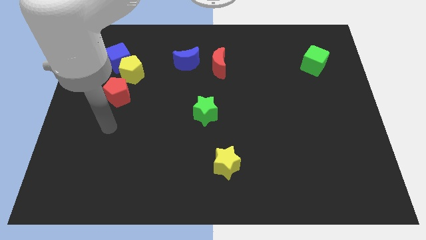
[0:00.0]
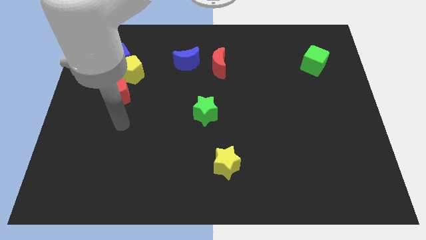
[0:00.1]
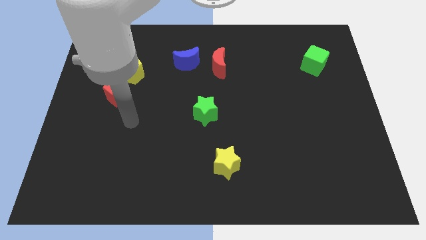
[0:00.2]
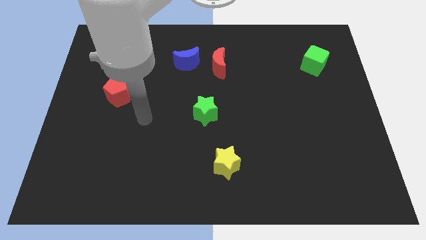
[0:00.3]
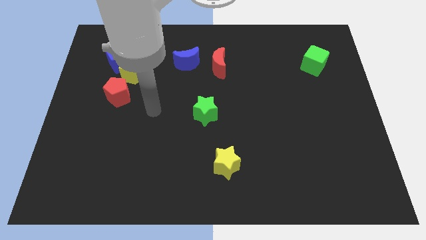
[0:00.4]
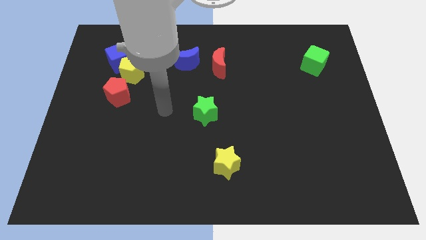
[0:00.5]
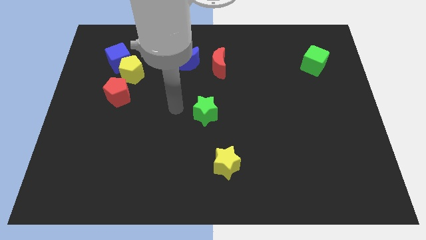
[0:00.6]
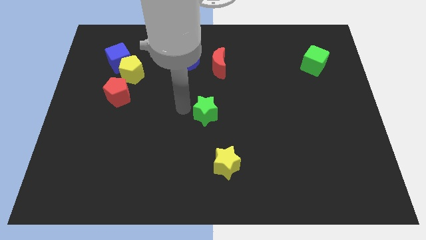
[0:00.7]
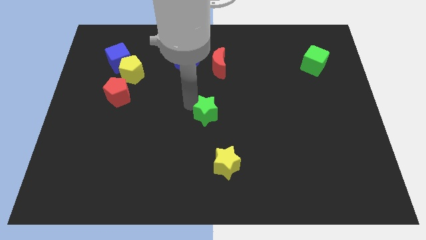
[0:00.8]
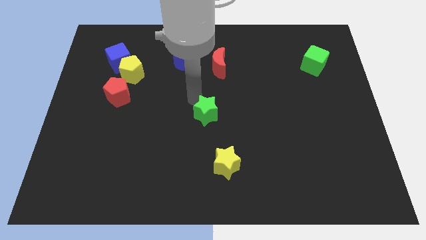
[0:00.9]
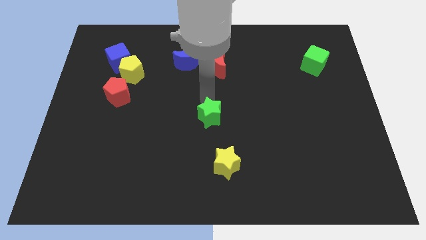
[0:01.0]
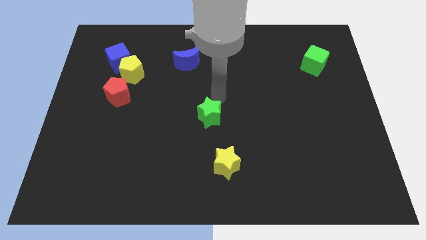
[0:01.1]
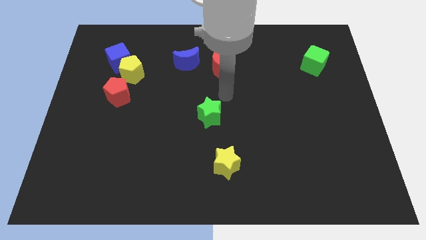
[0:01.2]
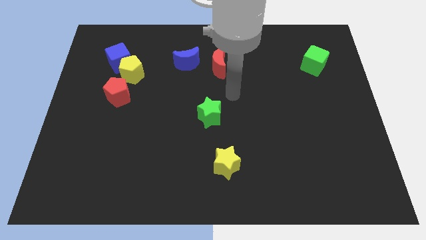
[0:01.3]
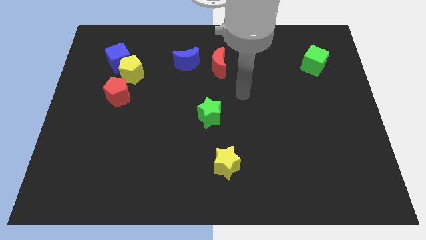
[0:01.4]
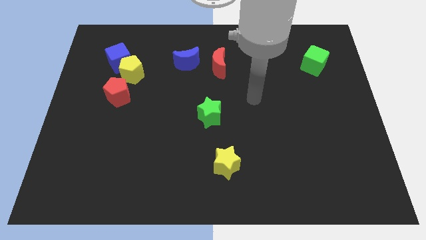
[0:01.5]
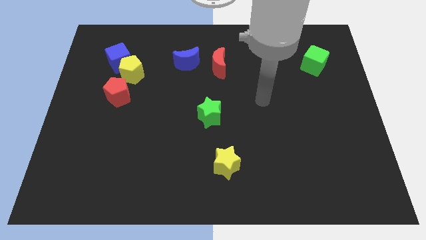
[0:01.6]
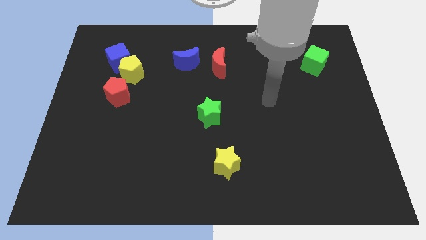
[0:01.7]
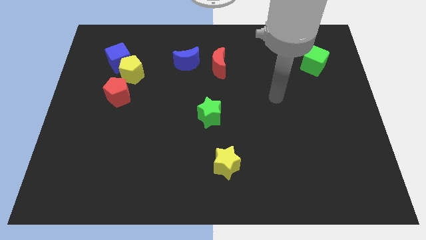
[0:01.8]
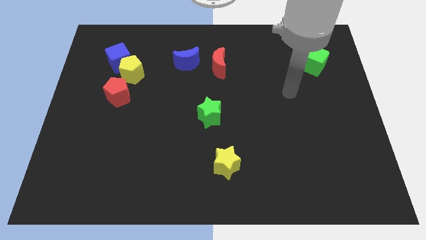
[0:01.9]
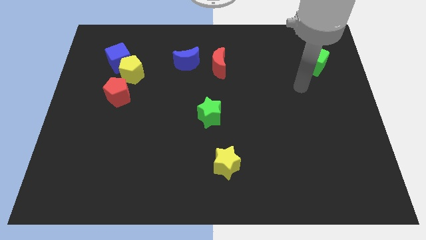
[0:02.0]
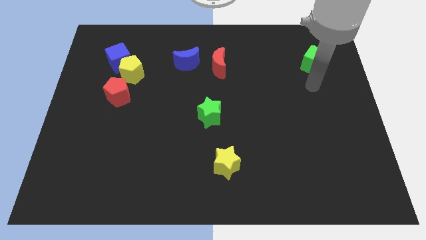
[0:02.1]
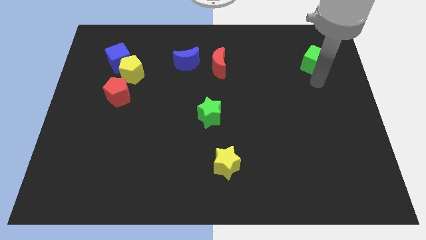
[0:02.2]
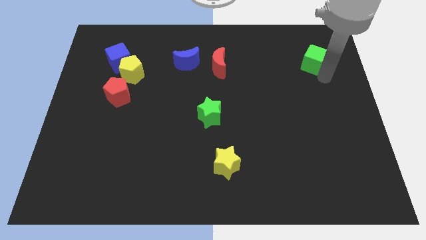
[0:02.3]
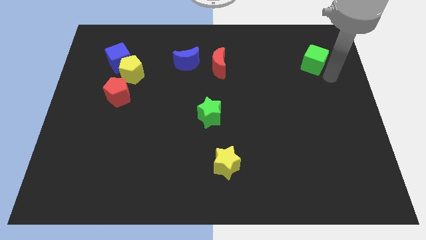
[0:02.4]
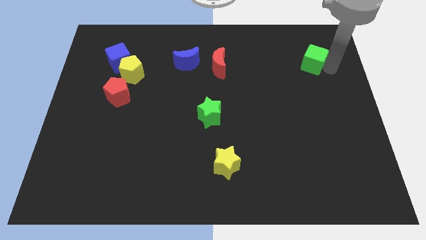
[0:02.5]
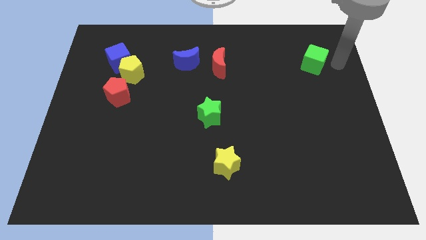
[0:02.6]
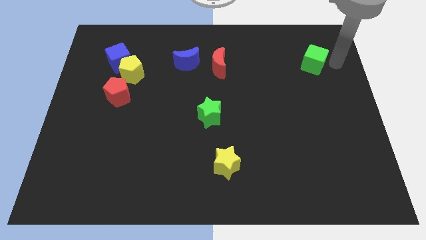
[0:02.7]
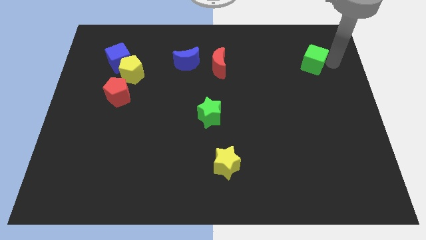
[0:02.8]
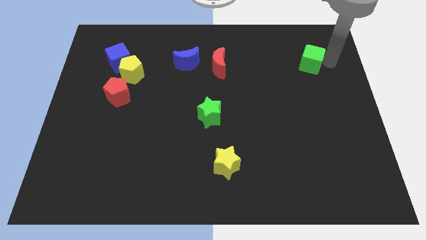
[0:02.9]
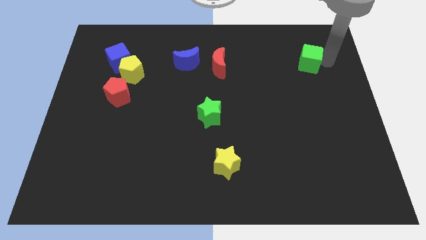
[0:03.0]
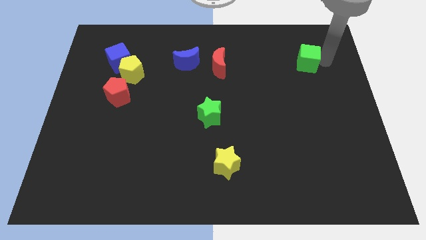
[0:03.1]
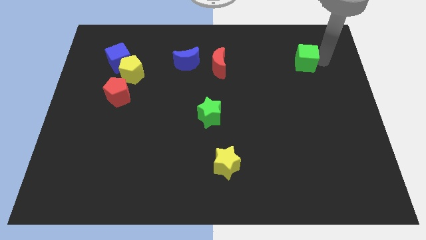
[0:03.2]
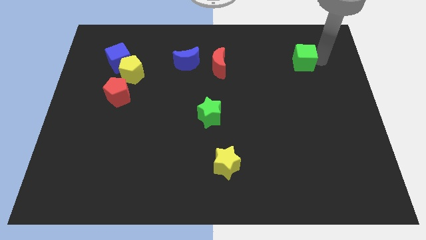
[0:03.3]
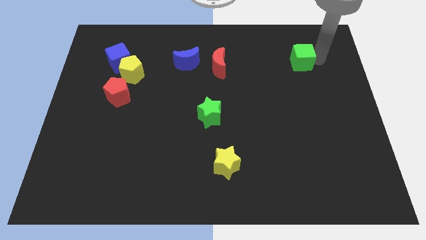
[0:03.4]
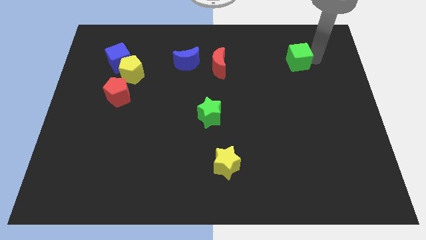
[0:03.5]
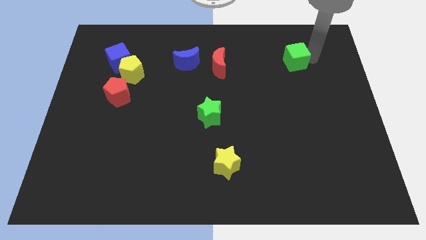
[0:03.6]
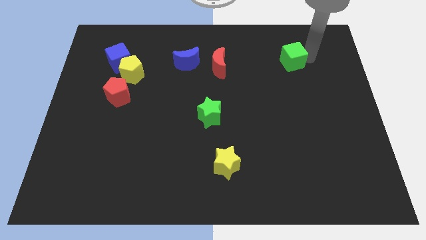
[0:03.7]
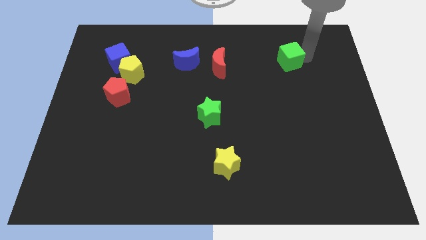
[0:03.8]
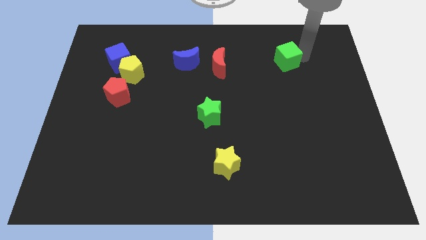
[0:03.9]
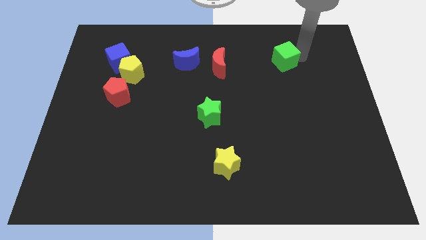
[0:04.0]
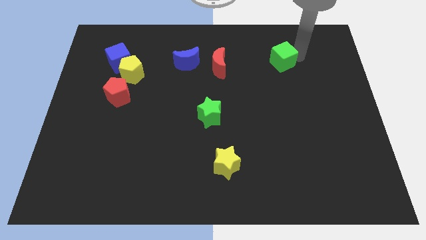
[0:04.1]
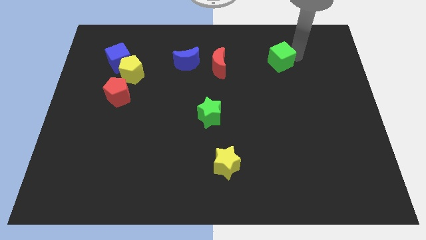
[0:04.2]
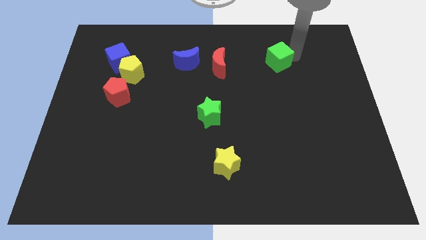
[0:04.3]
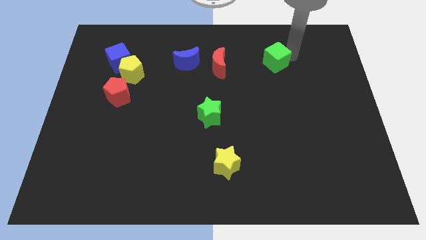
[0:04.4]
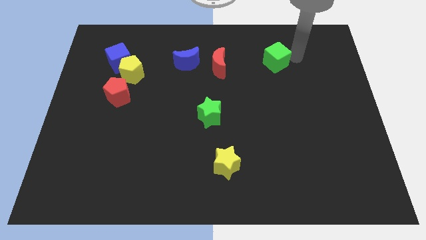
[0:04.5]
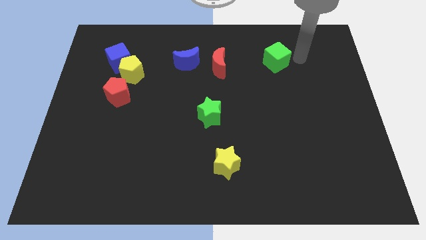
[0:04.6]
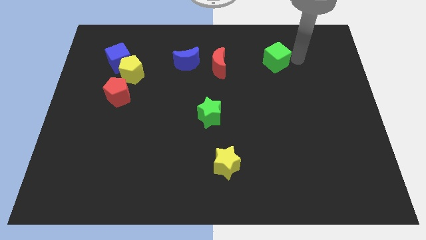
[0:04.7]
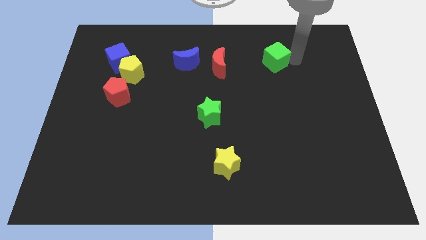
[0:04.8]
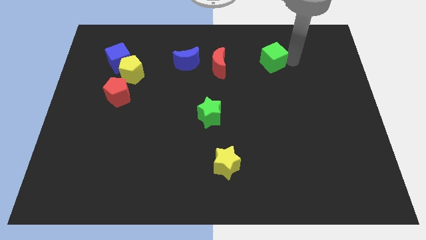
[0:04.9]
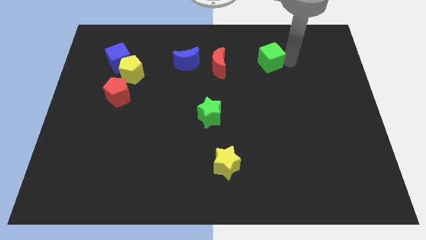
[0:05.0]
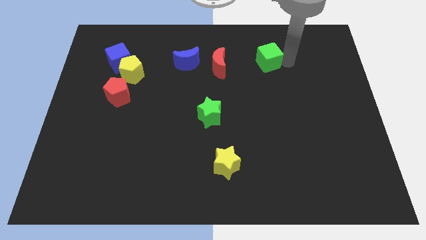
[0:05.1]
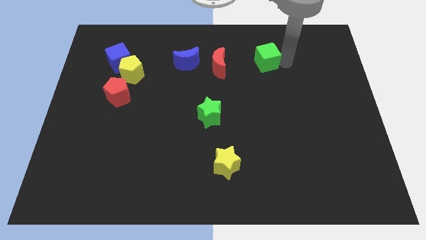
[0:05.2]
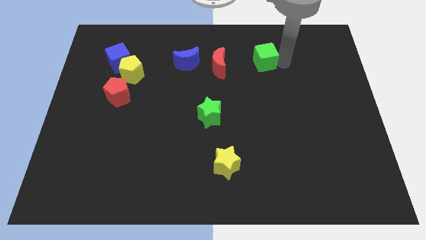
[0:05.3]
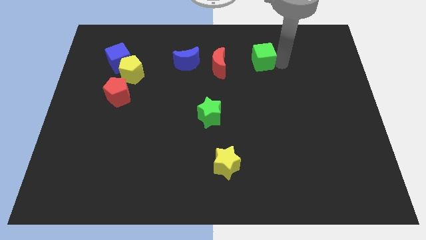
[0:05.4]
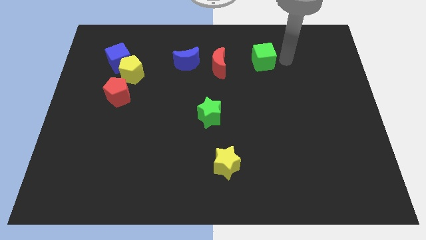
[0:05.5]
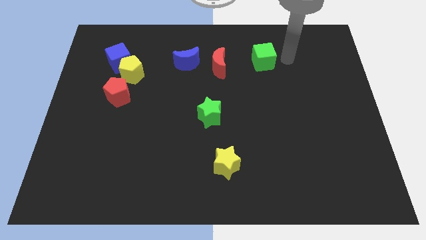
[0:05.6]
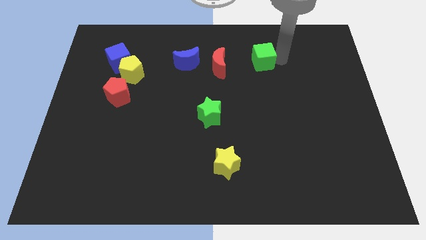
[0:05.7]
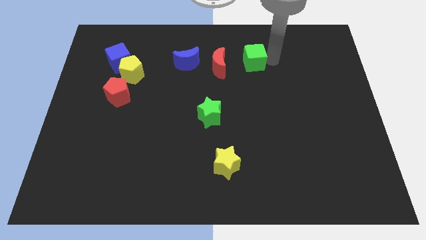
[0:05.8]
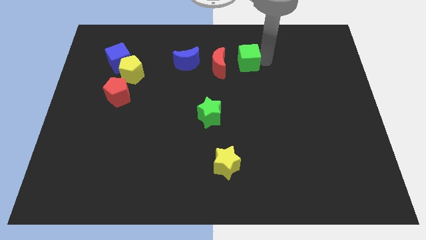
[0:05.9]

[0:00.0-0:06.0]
slide the green cube right of the blue moon

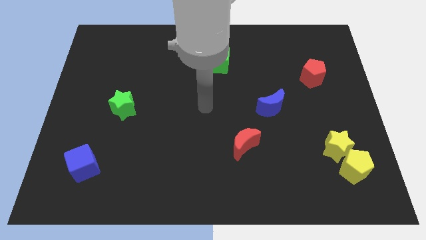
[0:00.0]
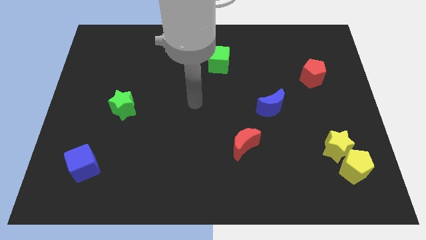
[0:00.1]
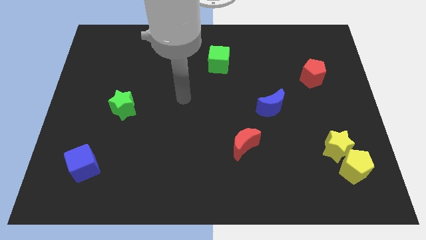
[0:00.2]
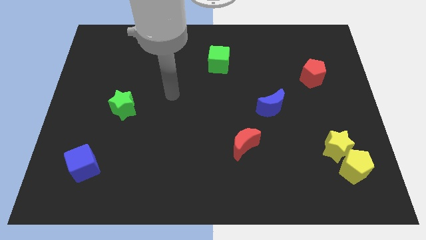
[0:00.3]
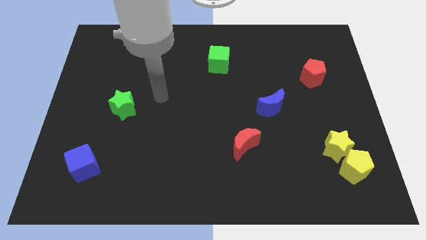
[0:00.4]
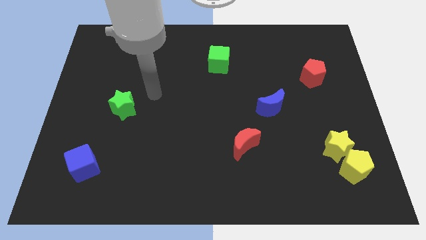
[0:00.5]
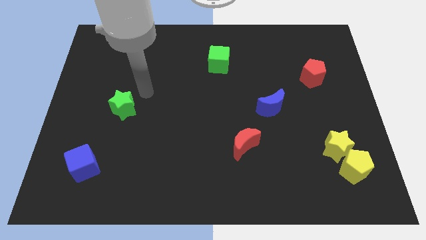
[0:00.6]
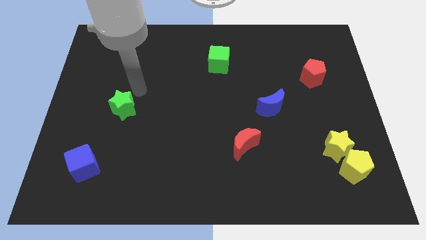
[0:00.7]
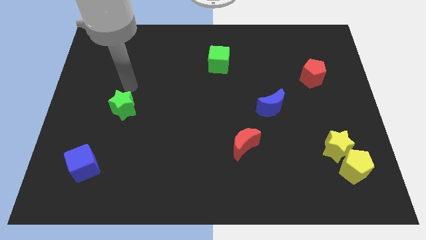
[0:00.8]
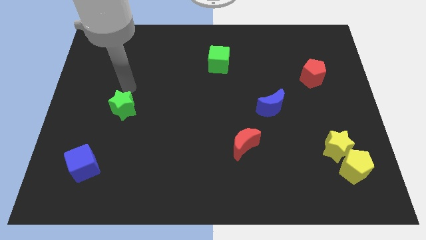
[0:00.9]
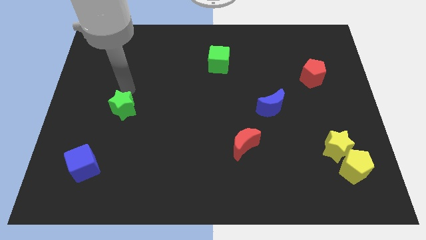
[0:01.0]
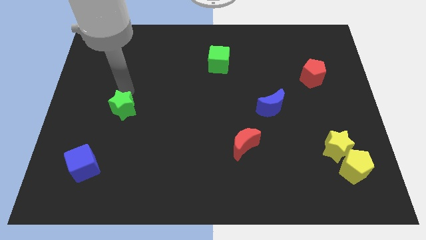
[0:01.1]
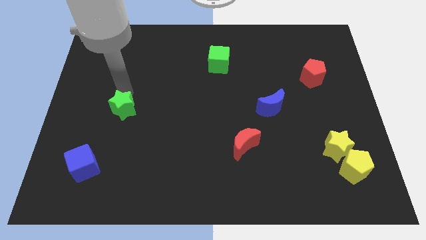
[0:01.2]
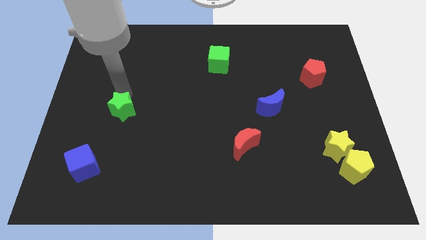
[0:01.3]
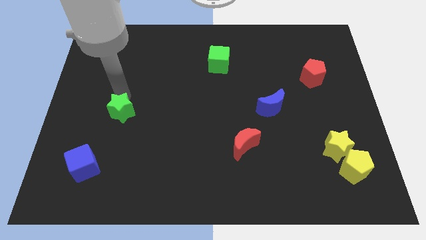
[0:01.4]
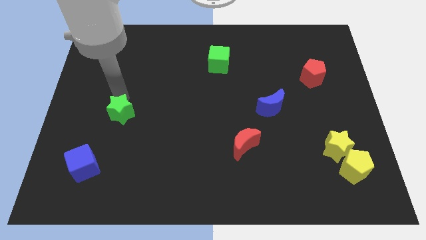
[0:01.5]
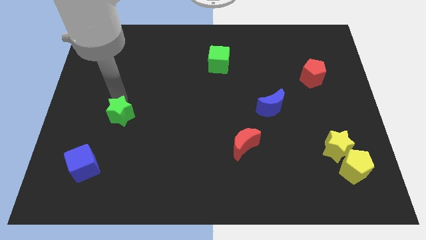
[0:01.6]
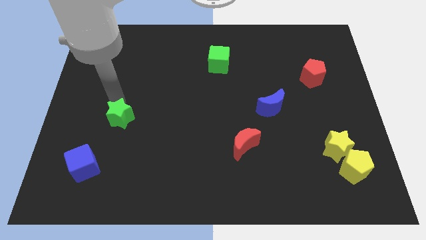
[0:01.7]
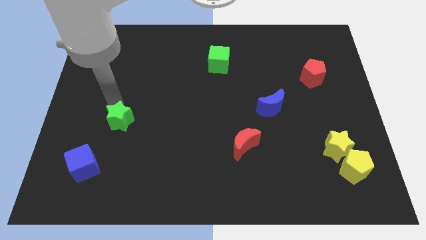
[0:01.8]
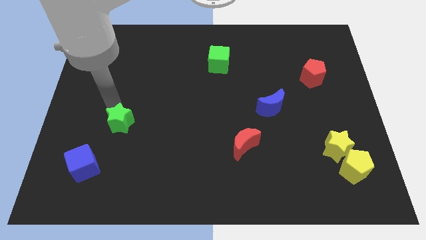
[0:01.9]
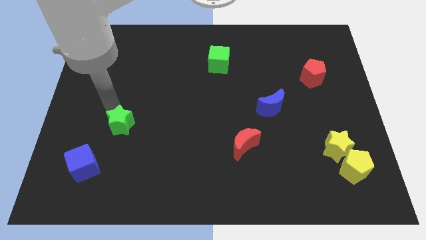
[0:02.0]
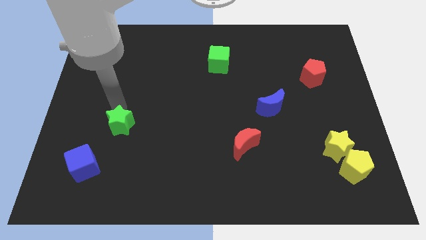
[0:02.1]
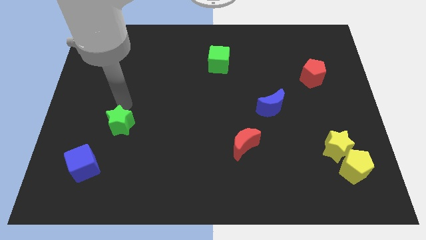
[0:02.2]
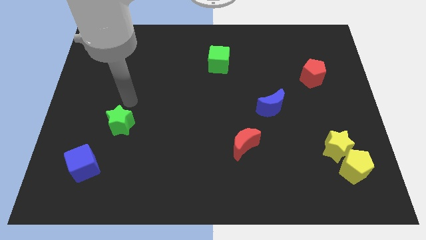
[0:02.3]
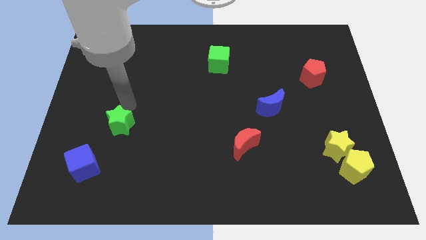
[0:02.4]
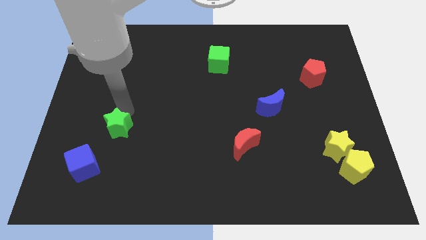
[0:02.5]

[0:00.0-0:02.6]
move the green star to the top right side of the blue cube
